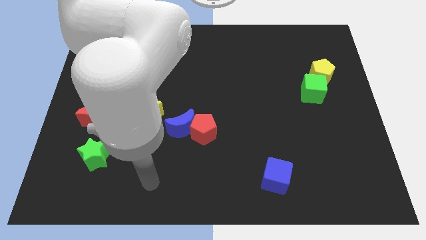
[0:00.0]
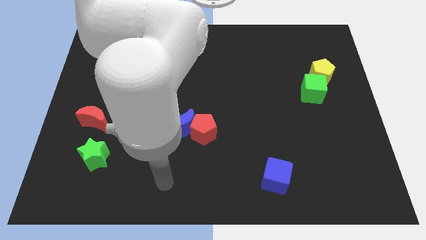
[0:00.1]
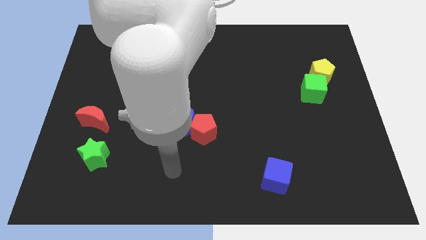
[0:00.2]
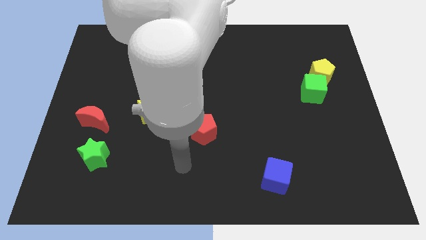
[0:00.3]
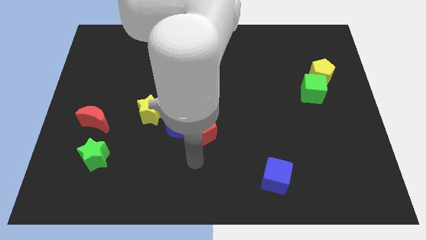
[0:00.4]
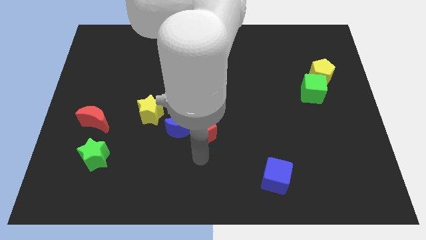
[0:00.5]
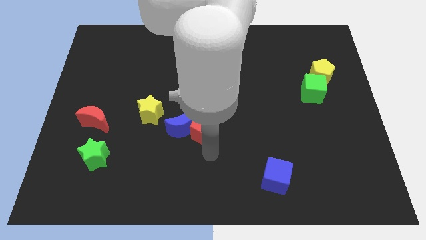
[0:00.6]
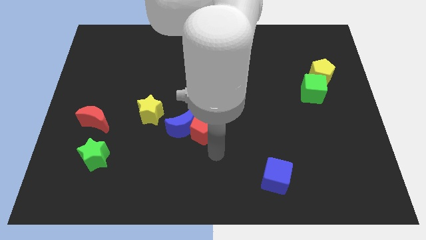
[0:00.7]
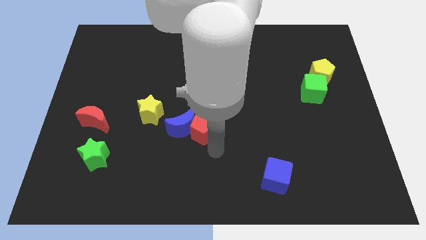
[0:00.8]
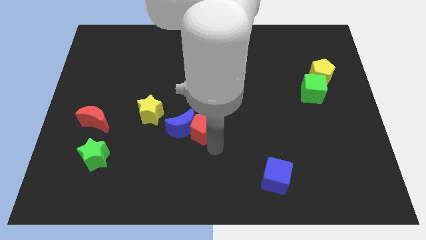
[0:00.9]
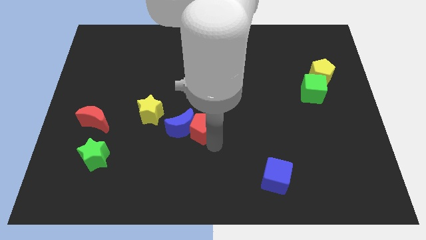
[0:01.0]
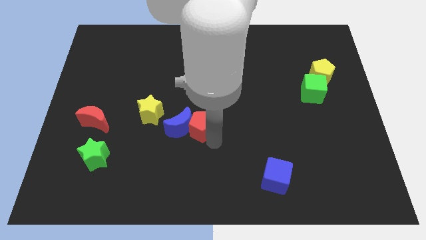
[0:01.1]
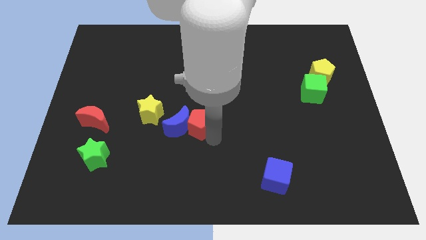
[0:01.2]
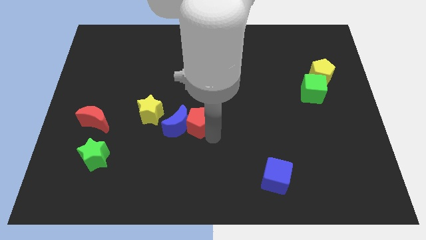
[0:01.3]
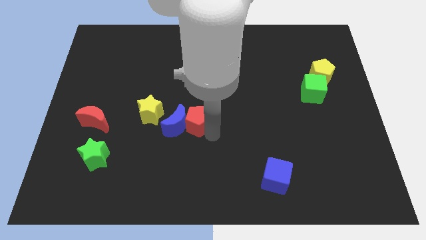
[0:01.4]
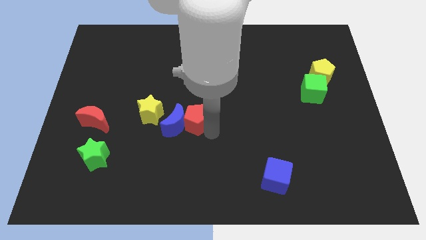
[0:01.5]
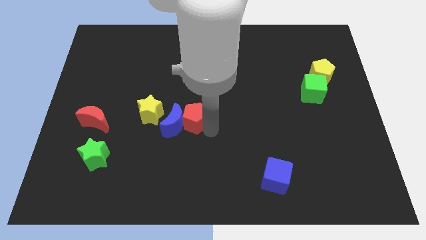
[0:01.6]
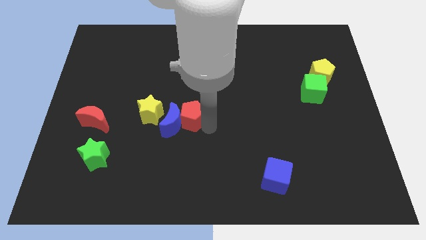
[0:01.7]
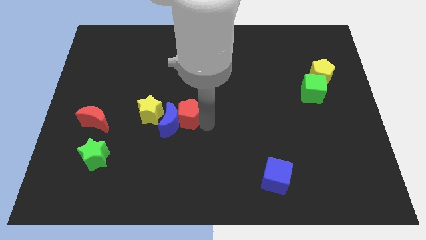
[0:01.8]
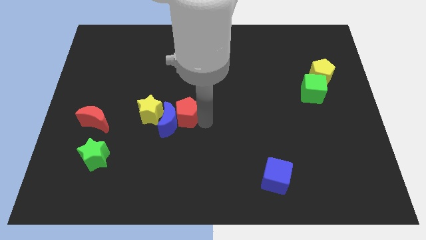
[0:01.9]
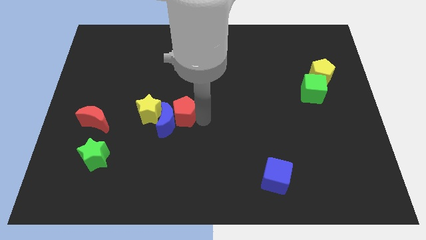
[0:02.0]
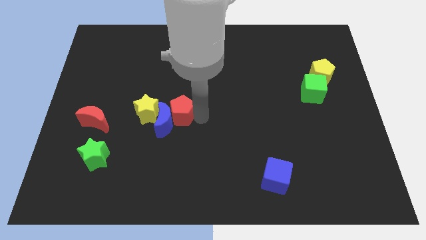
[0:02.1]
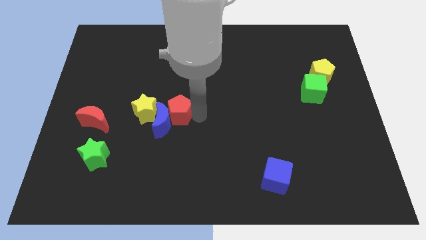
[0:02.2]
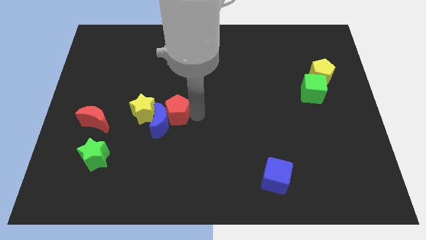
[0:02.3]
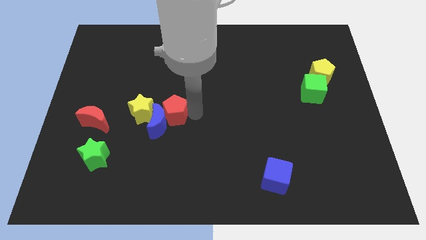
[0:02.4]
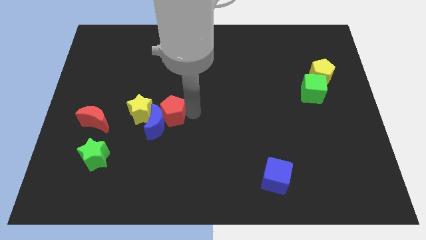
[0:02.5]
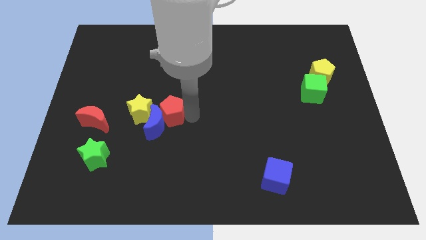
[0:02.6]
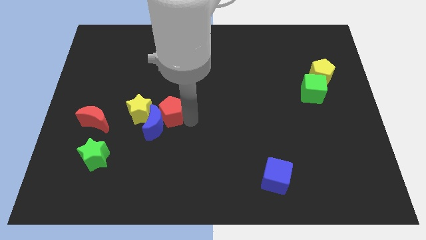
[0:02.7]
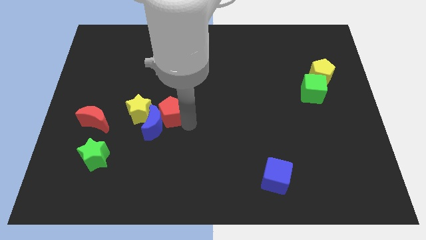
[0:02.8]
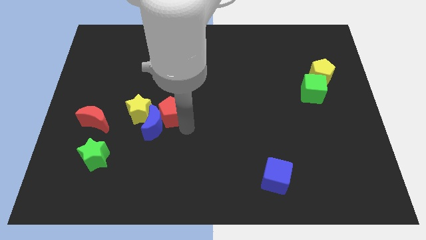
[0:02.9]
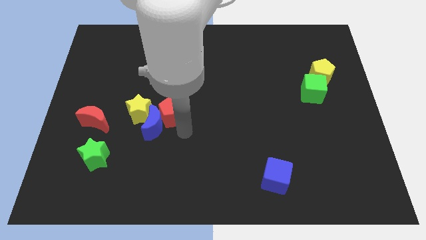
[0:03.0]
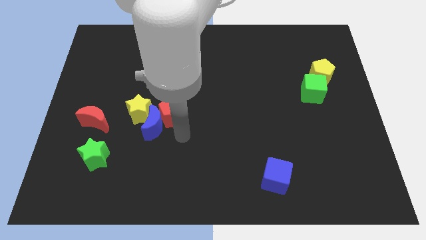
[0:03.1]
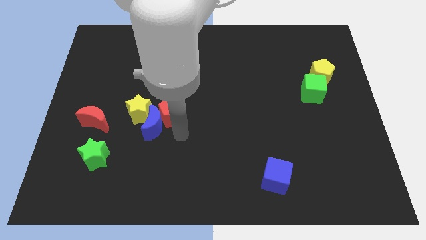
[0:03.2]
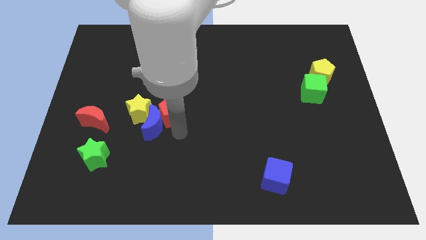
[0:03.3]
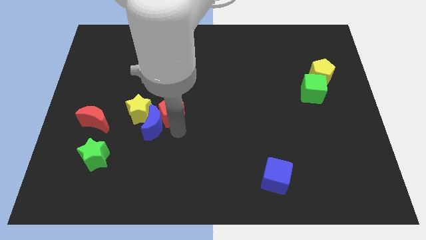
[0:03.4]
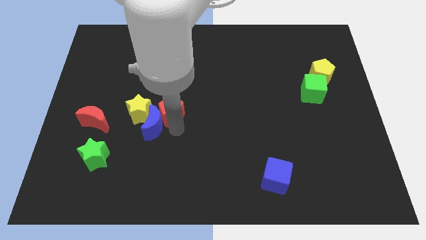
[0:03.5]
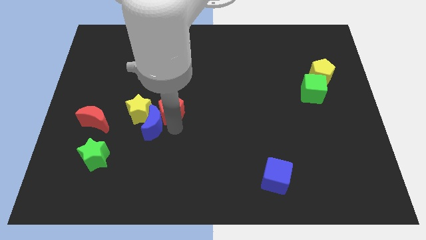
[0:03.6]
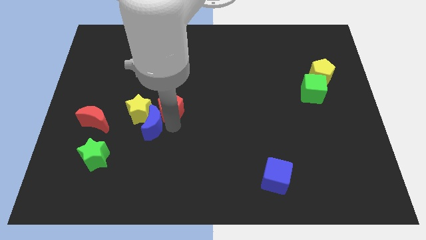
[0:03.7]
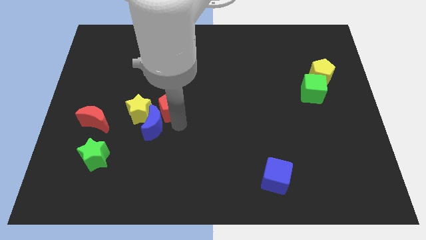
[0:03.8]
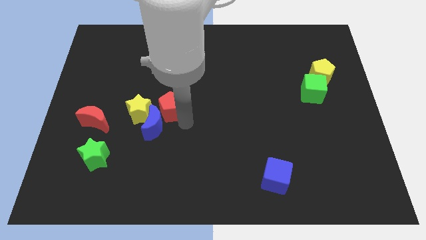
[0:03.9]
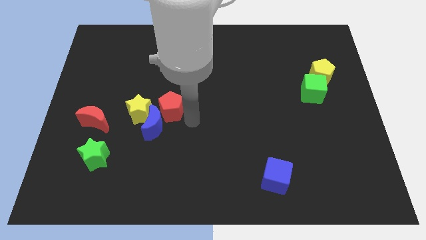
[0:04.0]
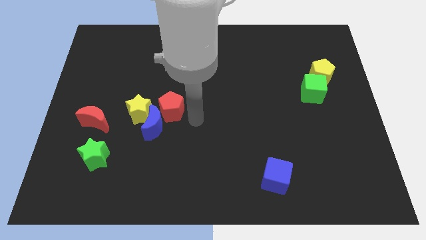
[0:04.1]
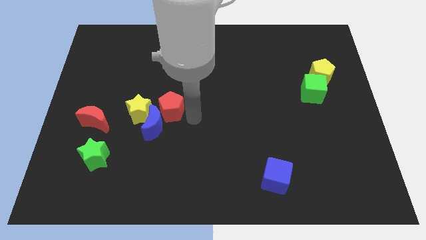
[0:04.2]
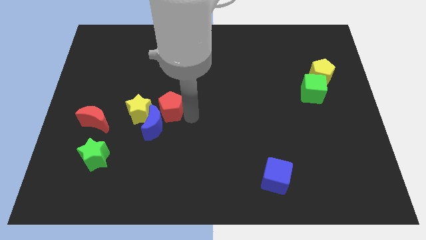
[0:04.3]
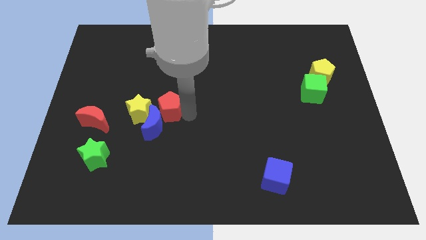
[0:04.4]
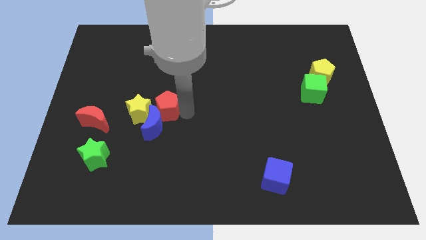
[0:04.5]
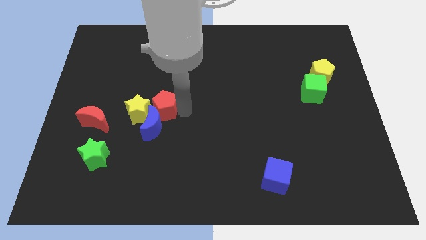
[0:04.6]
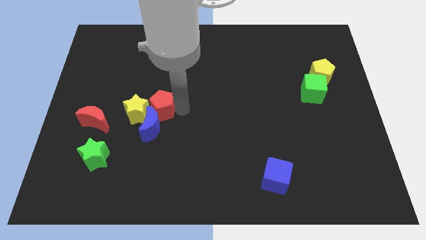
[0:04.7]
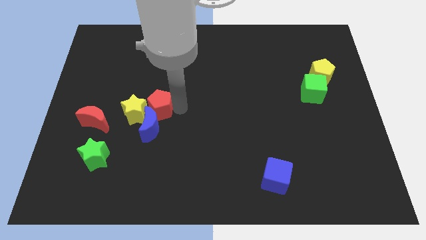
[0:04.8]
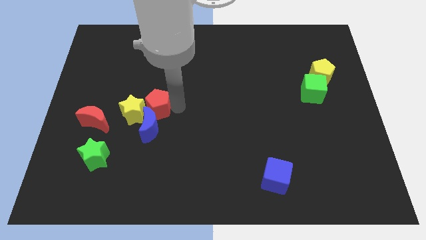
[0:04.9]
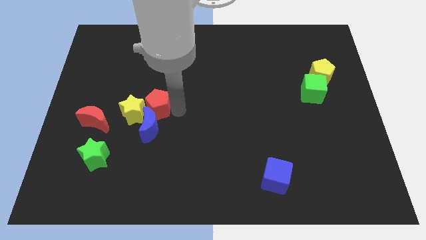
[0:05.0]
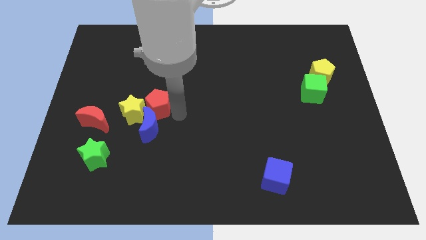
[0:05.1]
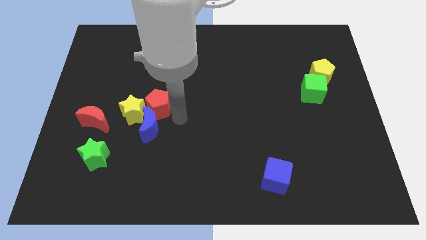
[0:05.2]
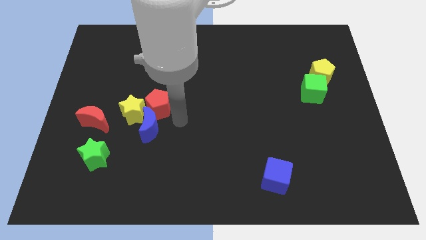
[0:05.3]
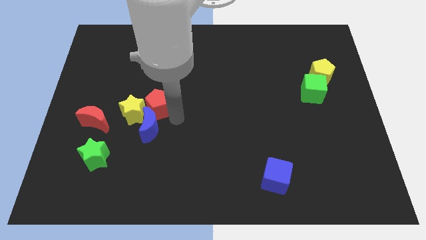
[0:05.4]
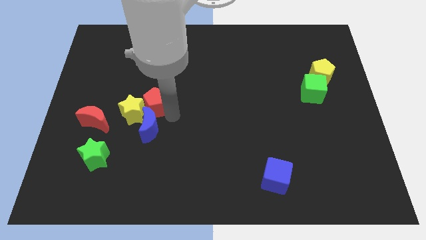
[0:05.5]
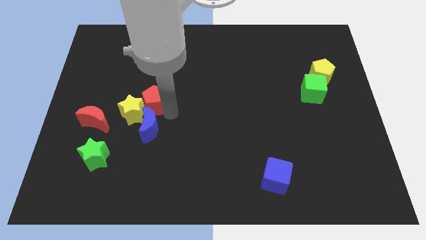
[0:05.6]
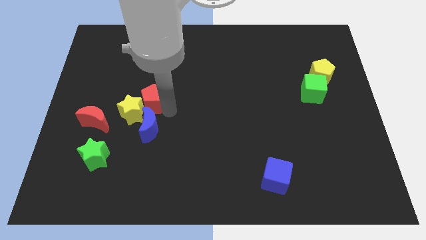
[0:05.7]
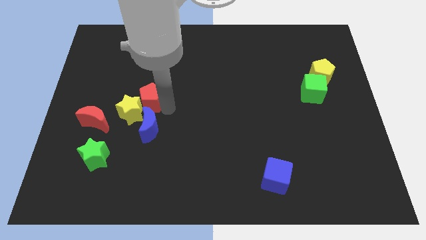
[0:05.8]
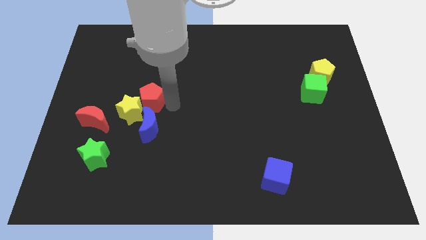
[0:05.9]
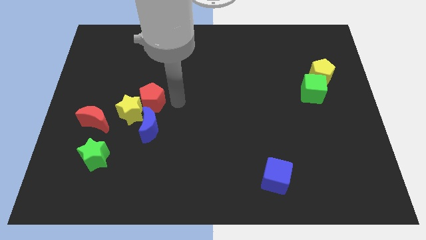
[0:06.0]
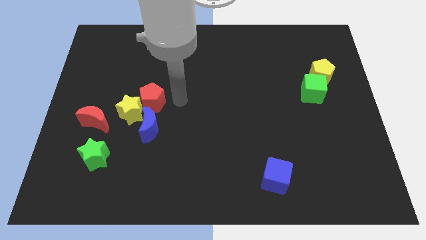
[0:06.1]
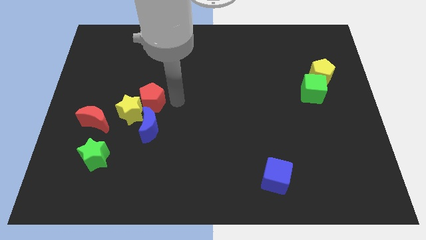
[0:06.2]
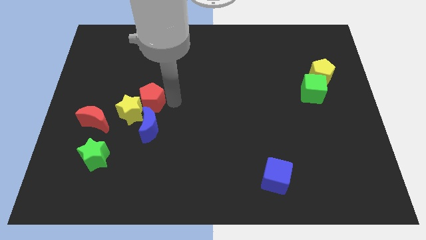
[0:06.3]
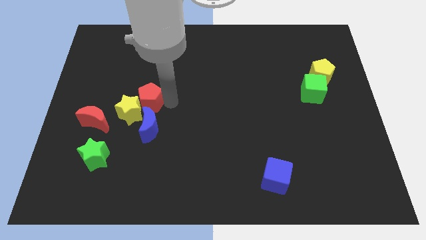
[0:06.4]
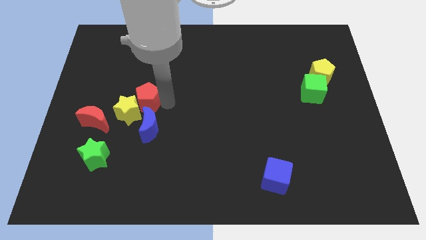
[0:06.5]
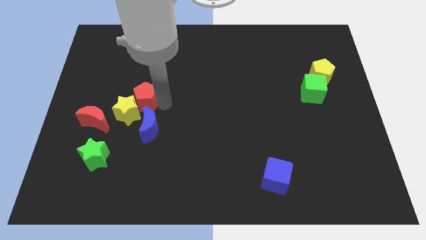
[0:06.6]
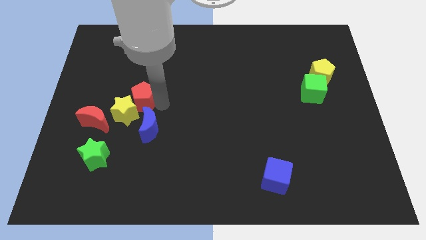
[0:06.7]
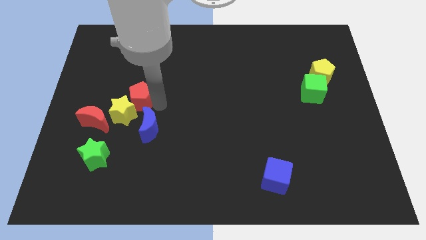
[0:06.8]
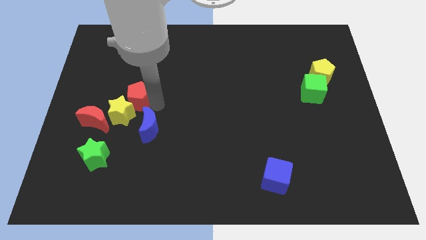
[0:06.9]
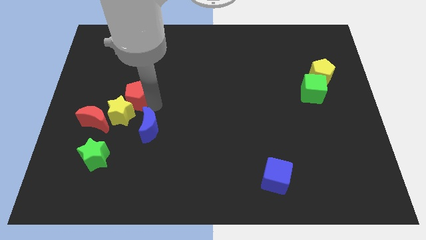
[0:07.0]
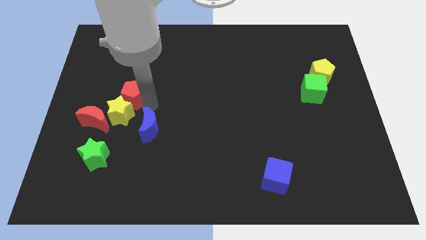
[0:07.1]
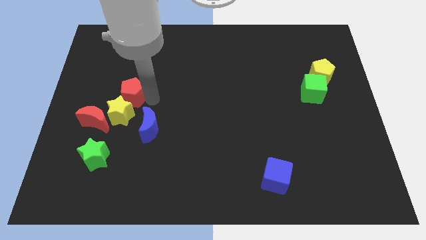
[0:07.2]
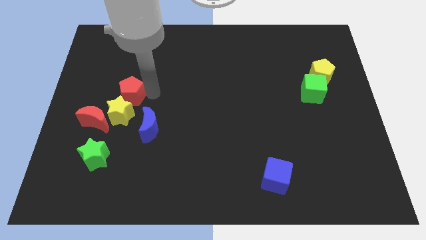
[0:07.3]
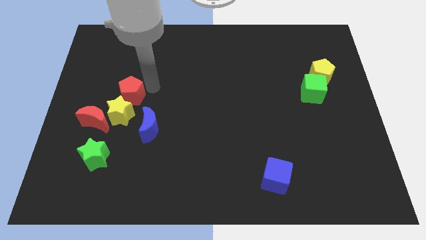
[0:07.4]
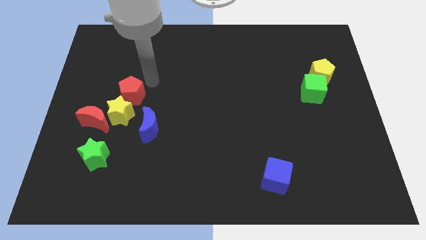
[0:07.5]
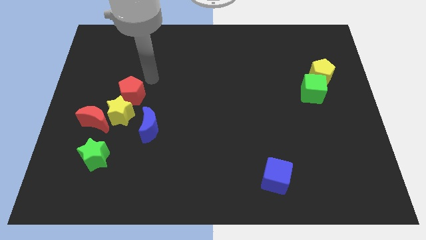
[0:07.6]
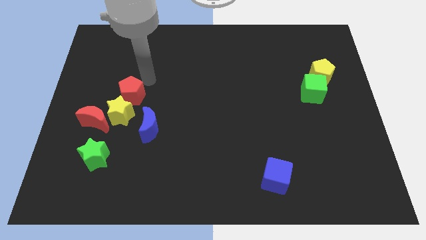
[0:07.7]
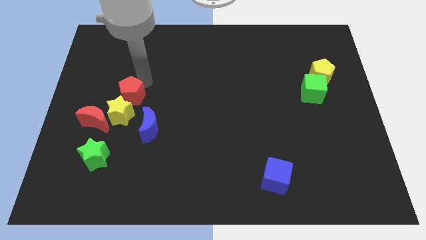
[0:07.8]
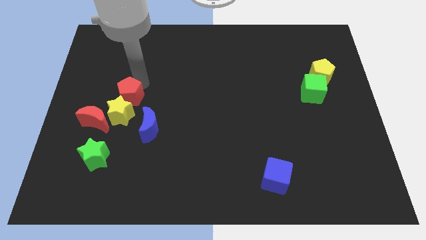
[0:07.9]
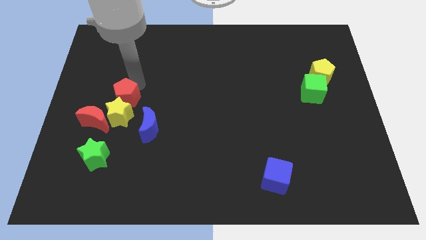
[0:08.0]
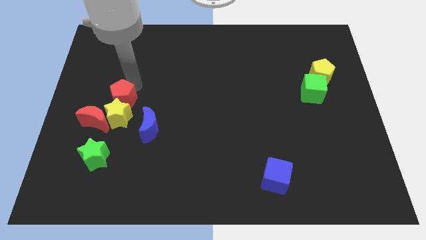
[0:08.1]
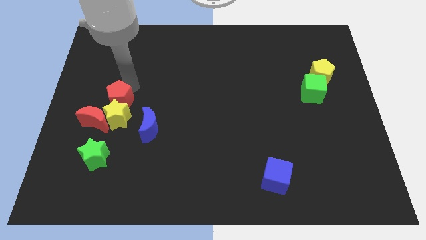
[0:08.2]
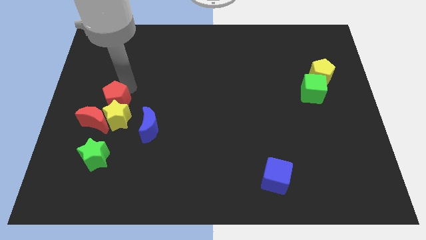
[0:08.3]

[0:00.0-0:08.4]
slide the red pentagon to the top side of the green star
